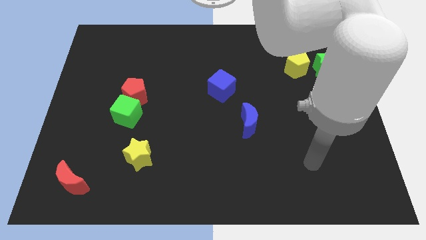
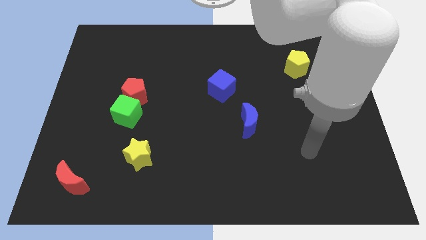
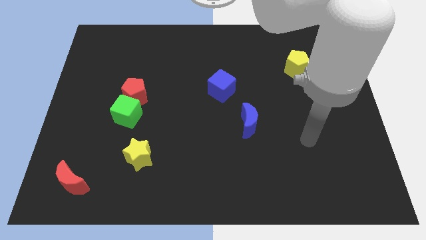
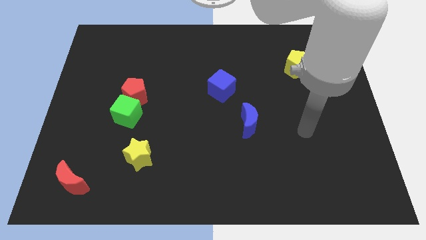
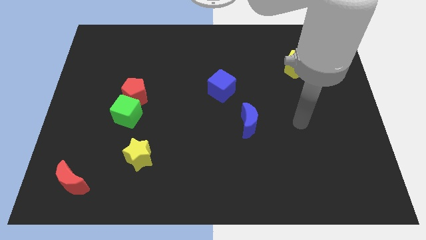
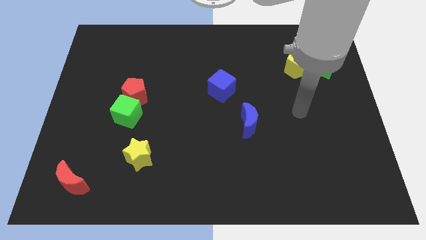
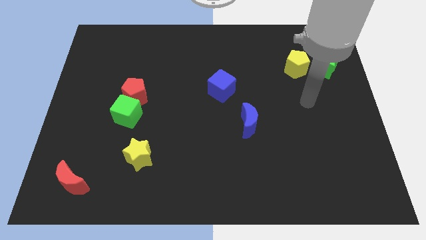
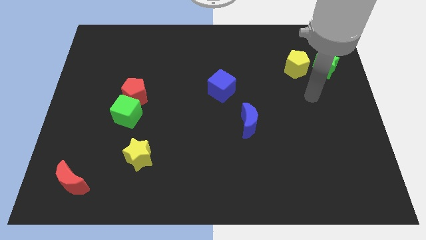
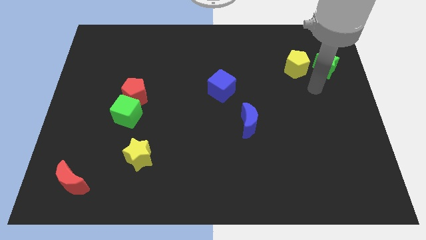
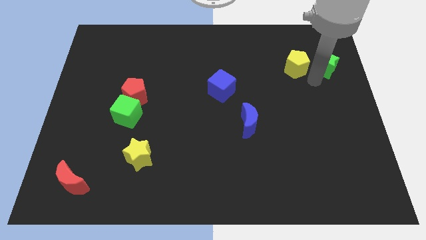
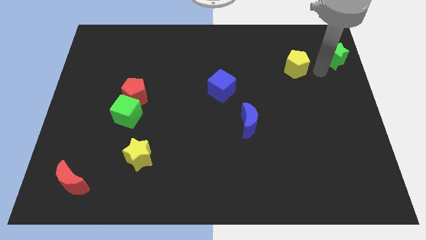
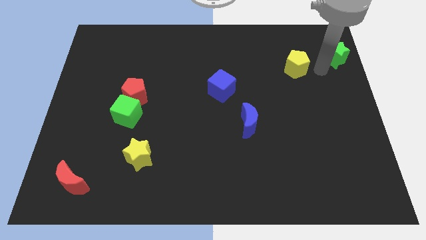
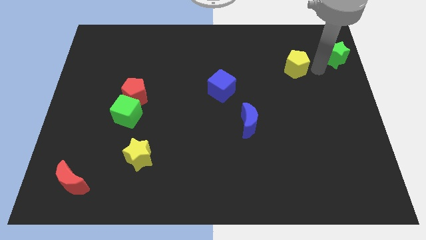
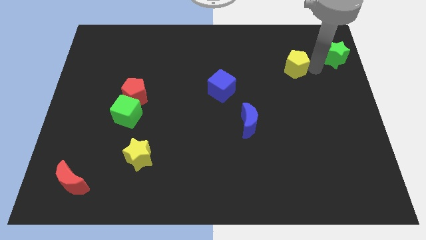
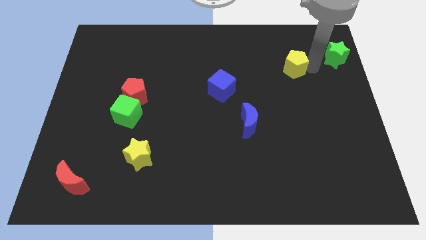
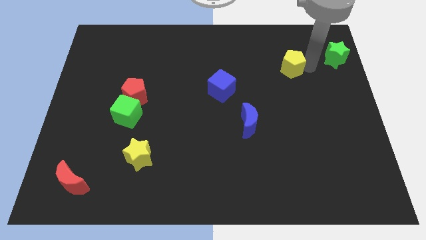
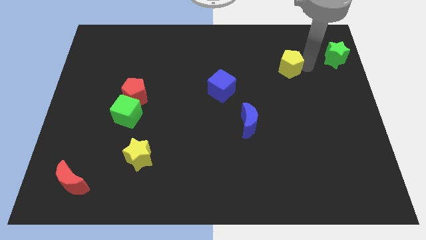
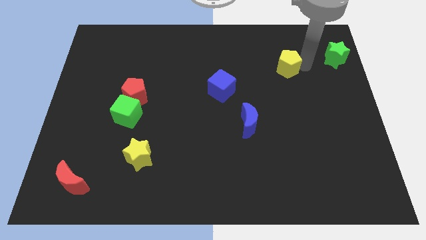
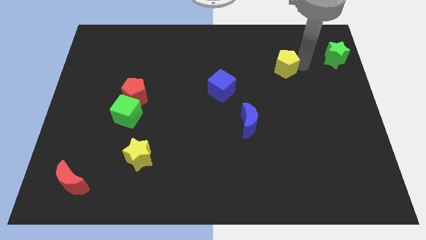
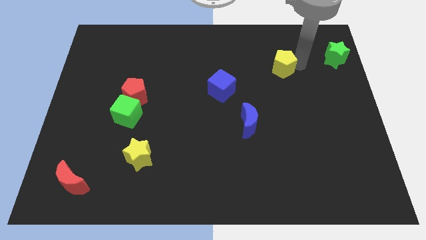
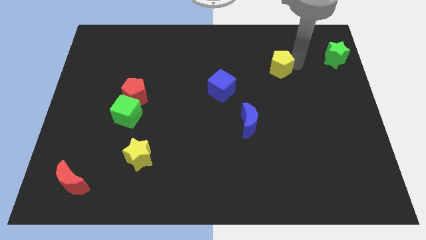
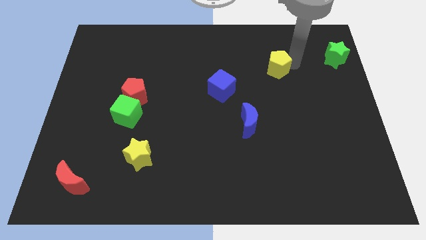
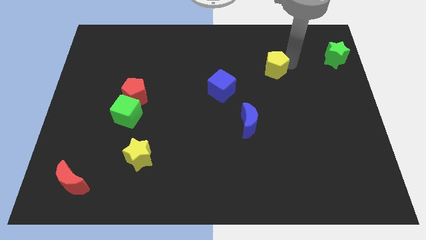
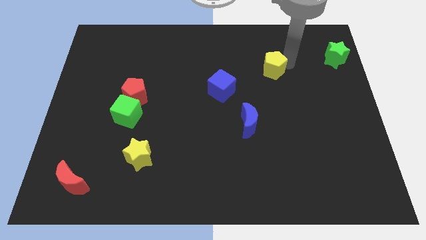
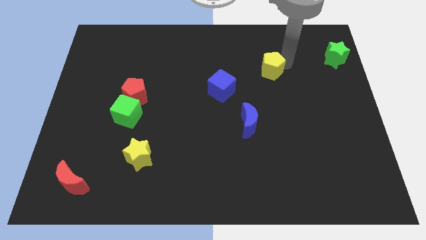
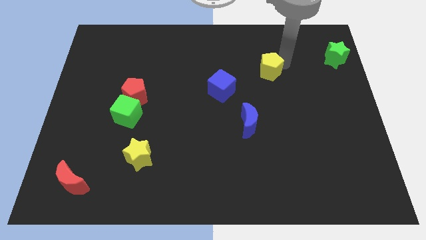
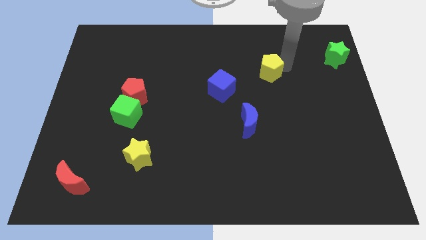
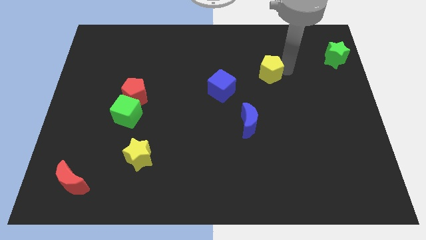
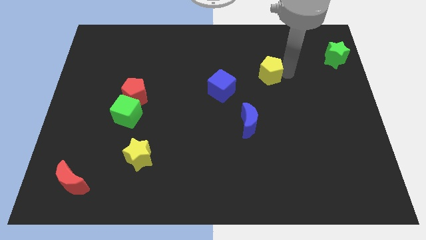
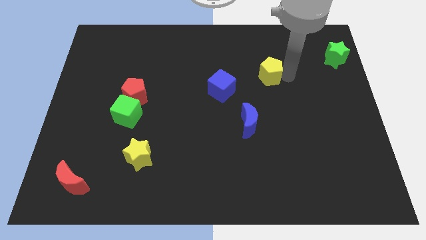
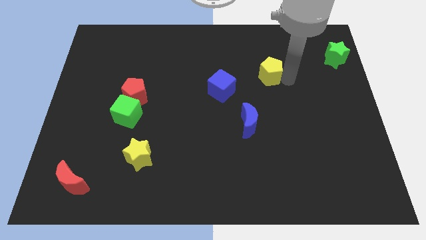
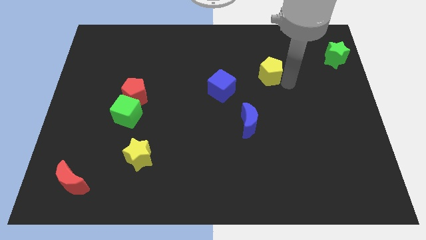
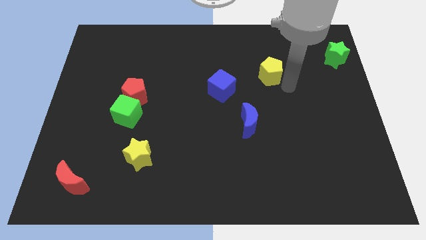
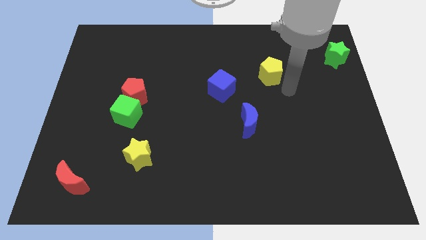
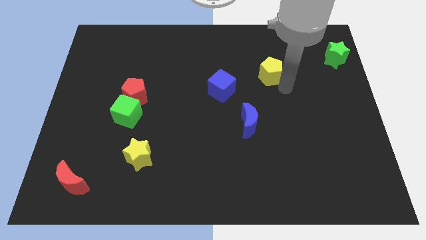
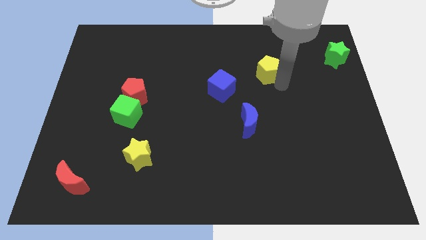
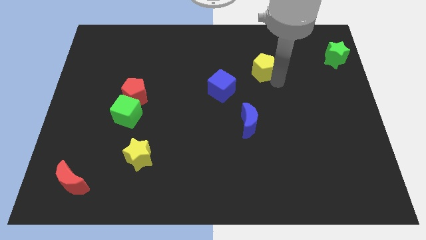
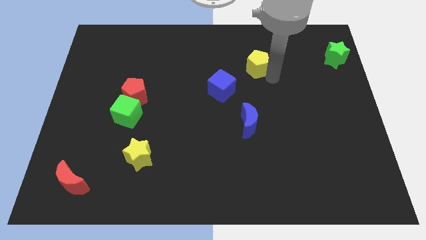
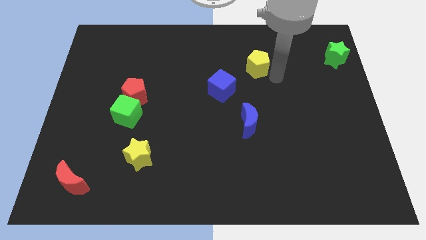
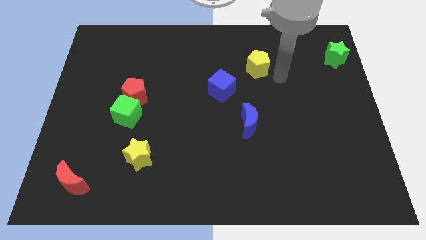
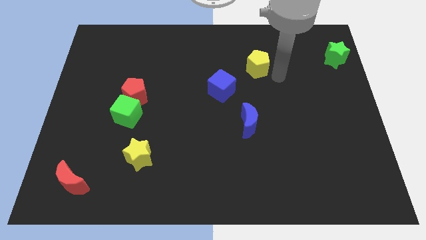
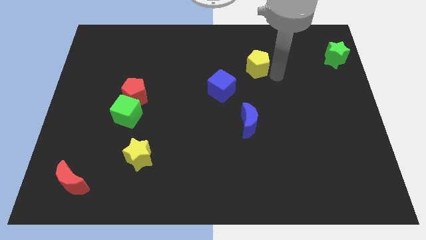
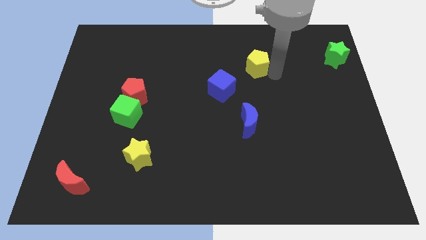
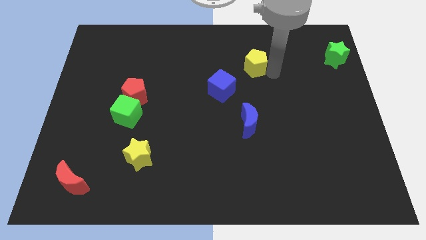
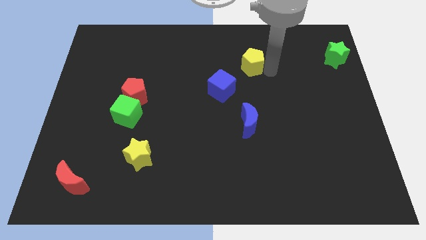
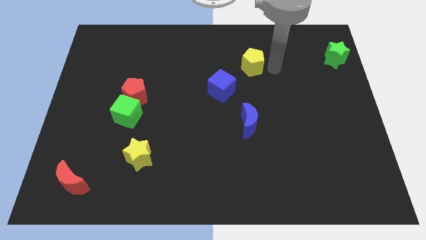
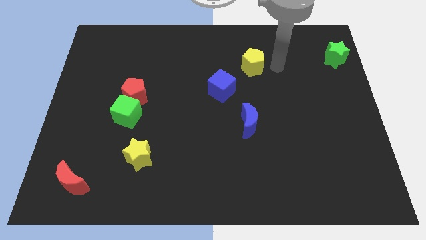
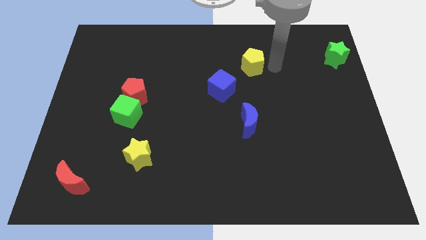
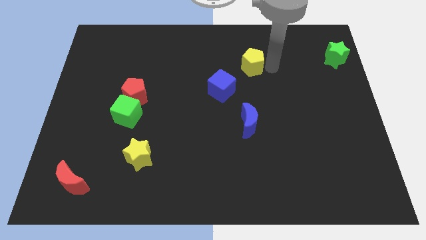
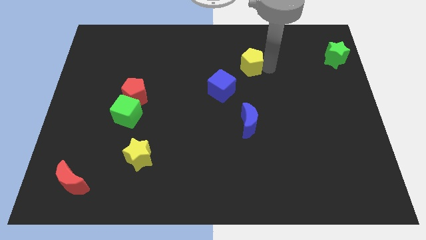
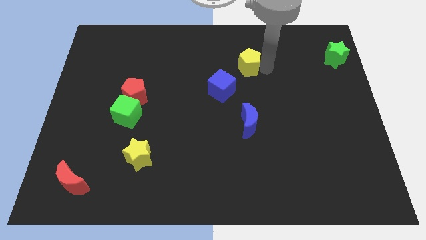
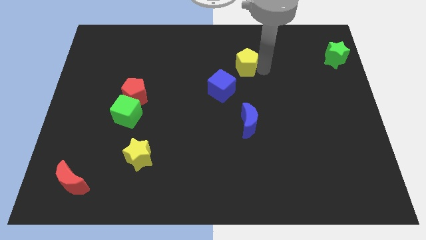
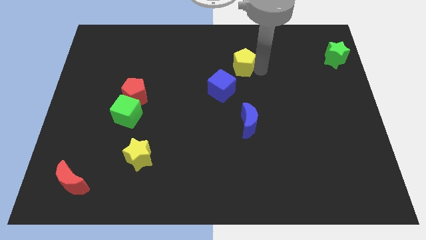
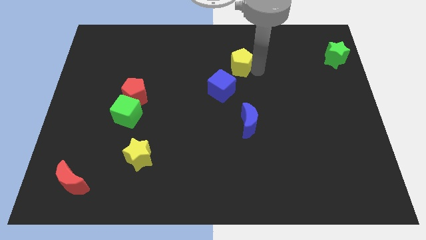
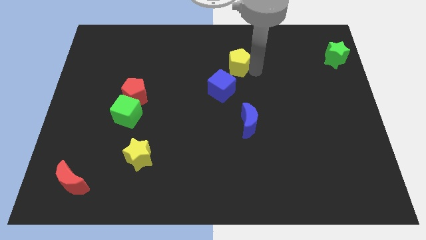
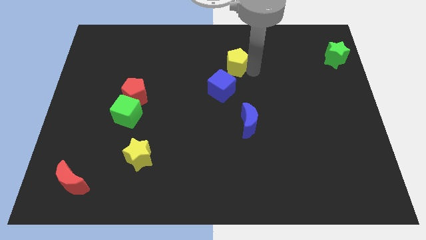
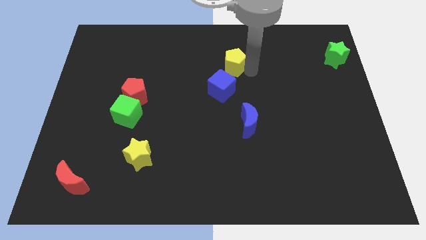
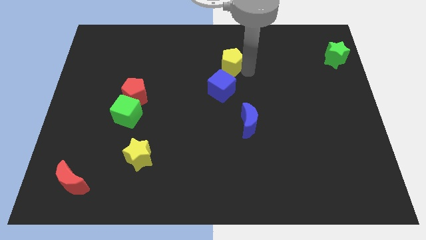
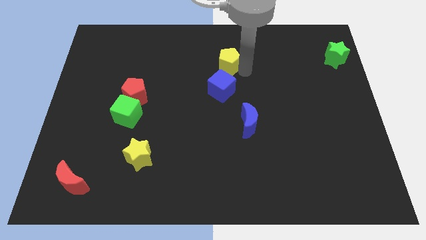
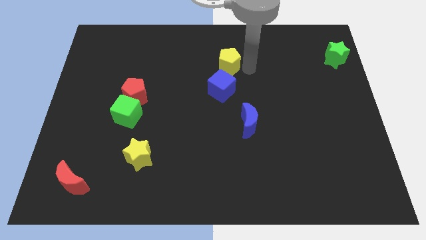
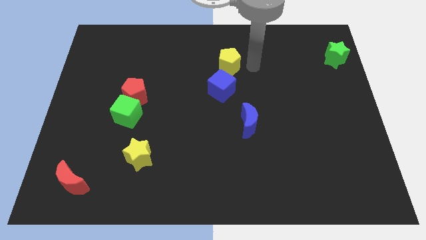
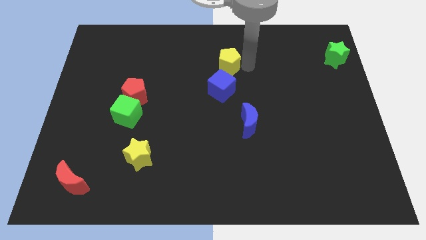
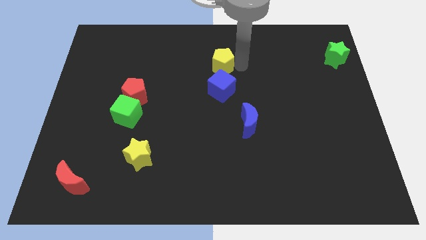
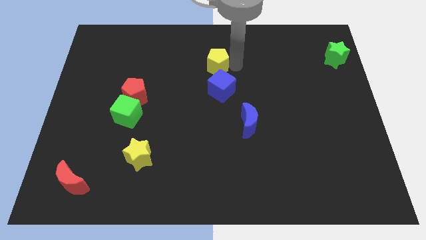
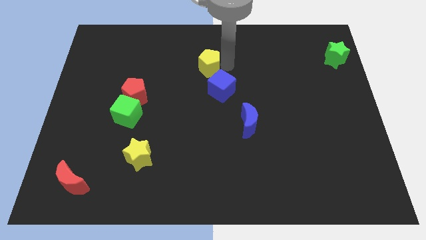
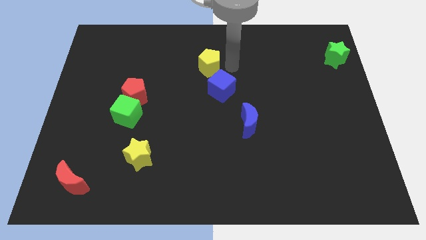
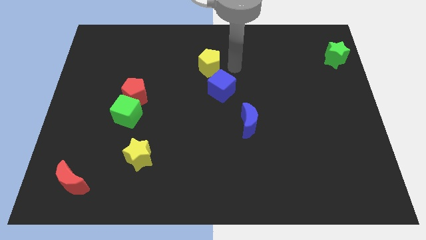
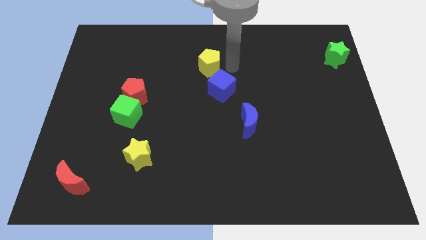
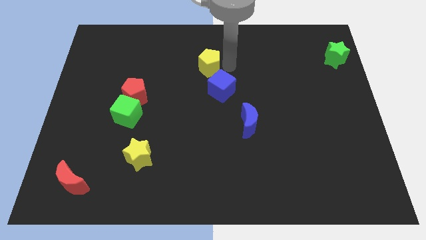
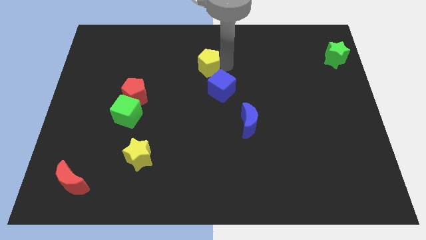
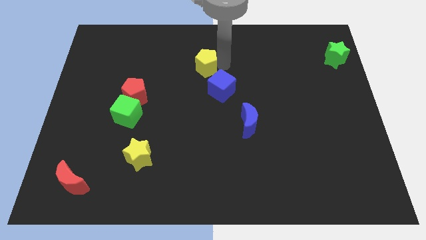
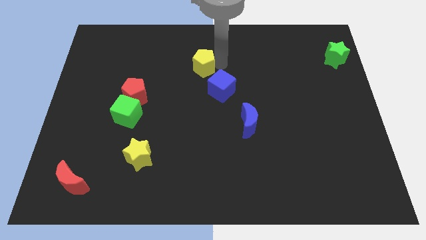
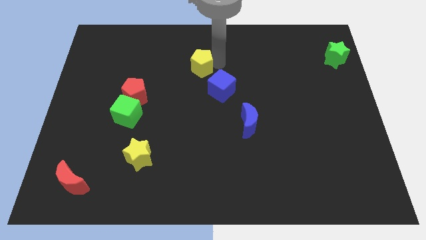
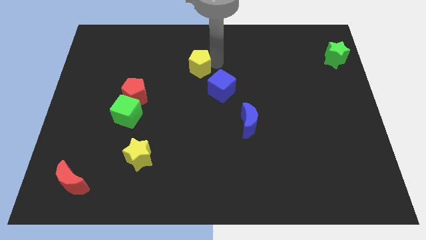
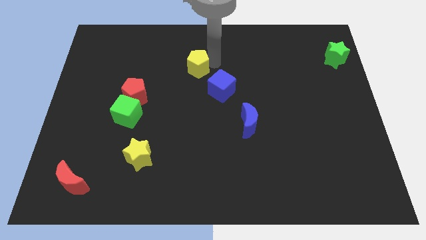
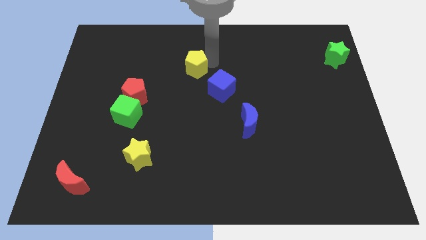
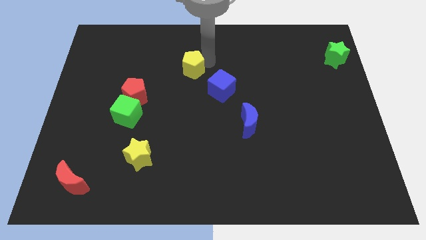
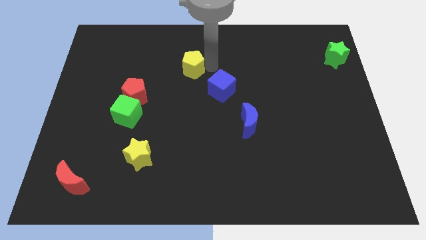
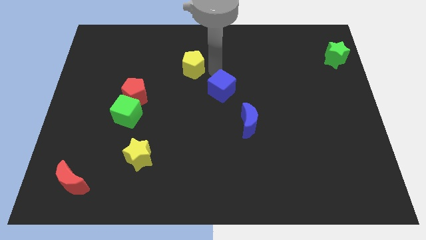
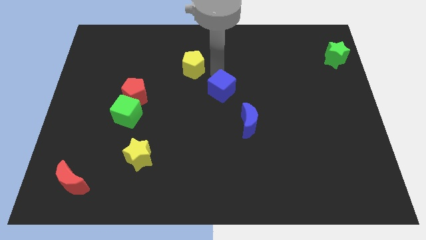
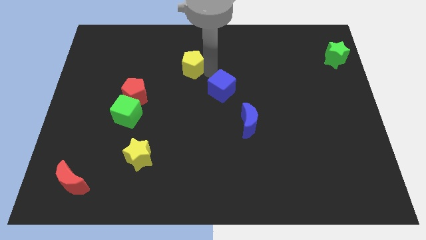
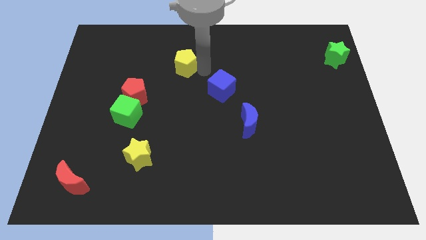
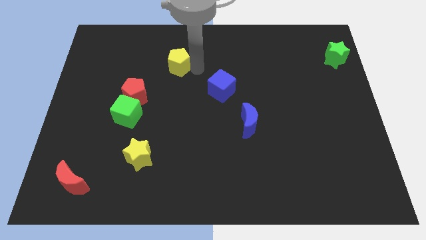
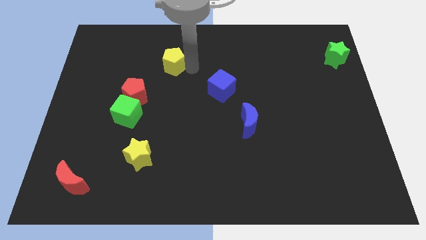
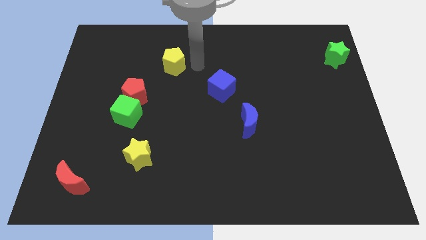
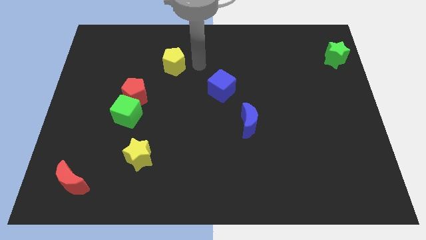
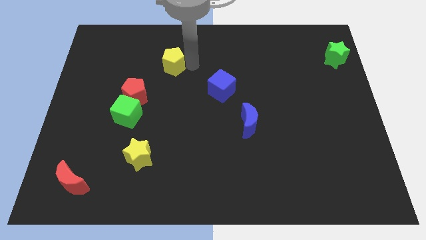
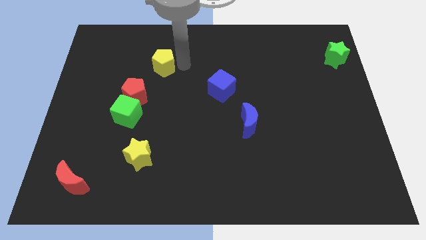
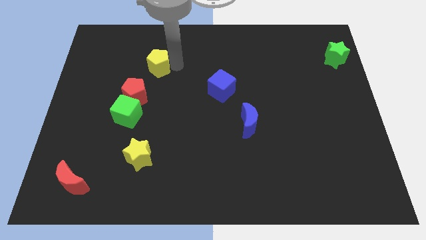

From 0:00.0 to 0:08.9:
move the yellow pentagon to the top side of the red pentagon
